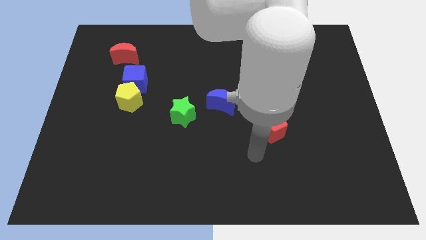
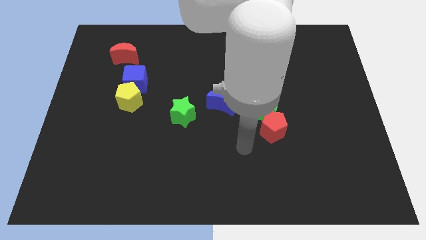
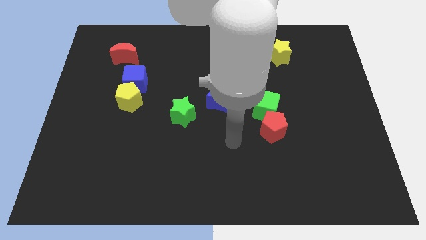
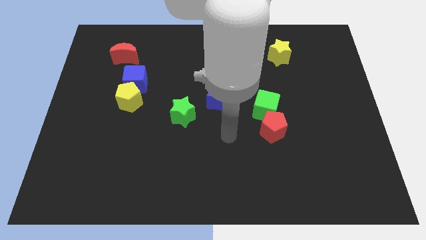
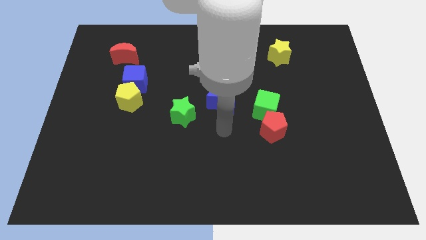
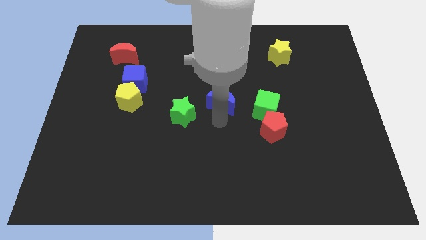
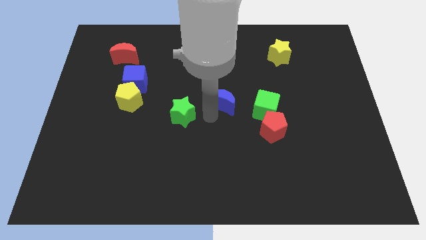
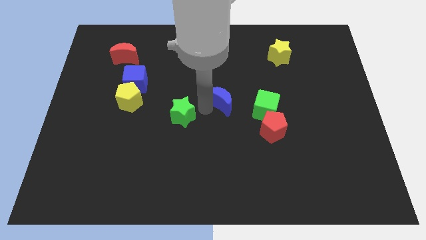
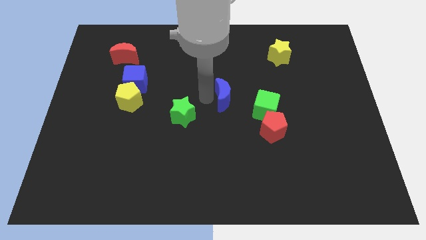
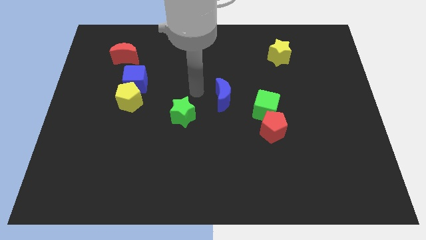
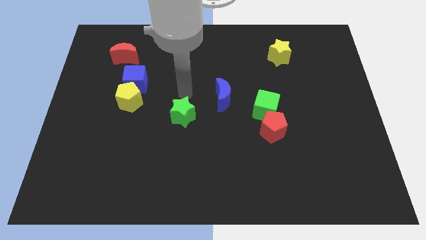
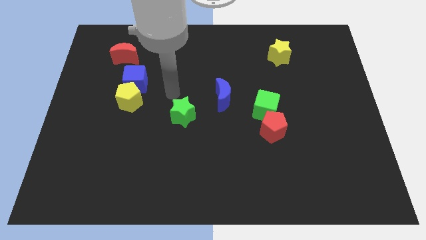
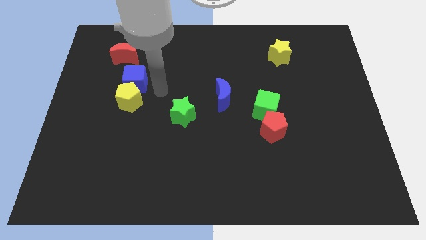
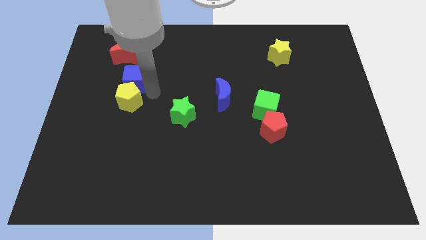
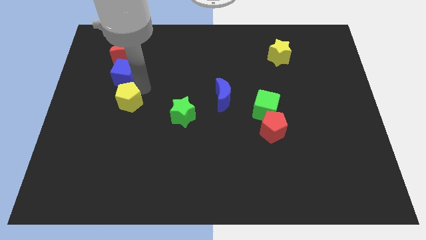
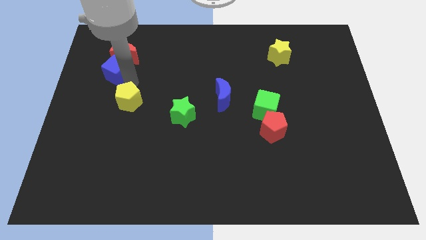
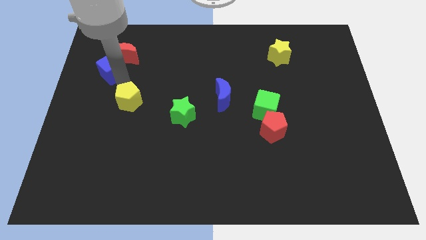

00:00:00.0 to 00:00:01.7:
pull the yellow pentagon apart from the blue cube

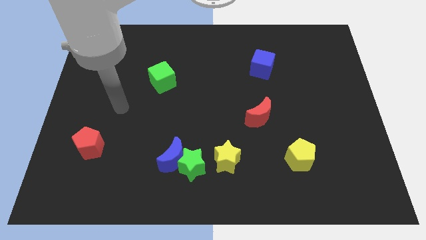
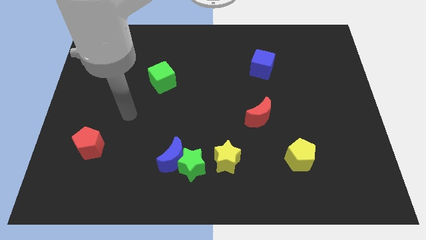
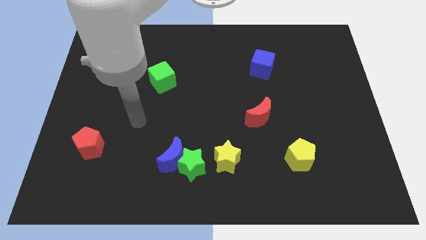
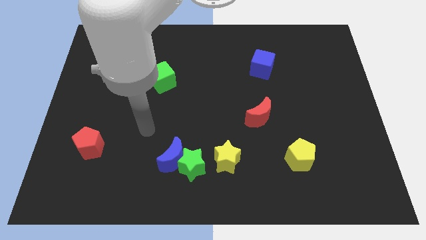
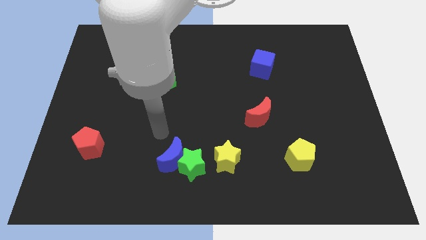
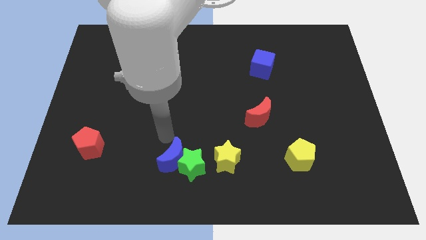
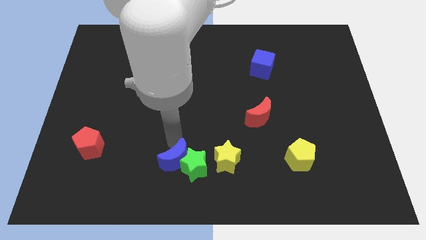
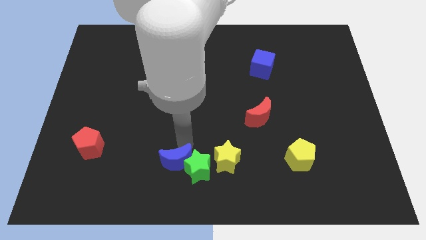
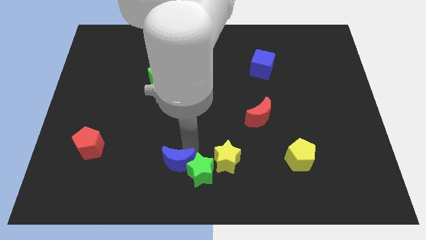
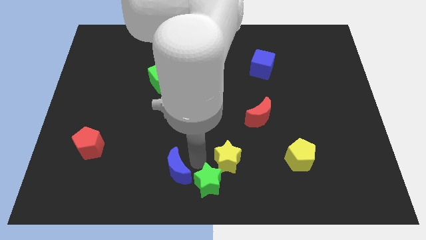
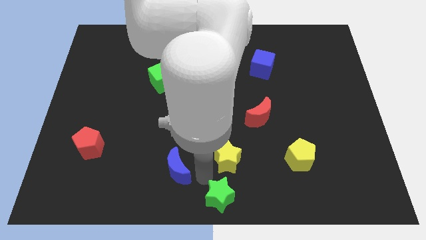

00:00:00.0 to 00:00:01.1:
separate the blue moon from the green star

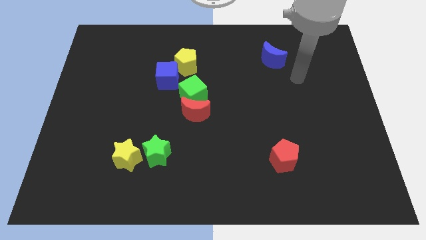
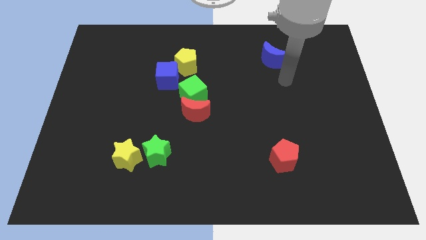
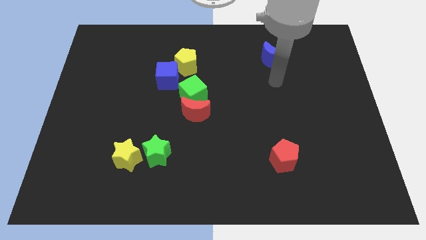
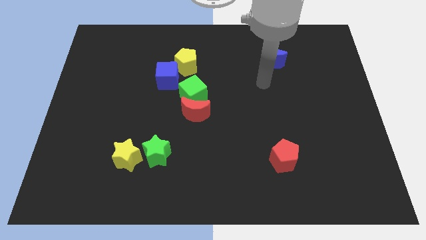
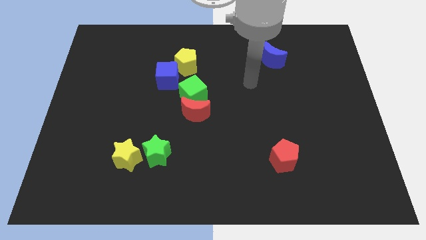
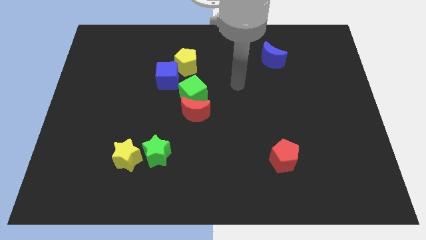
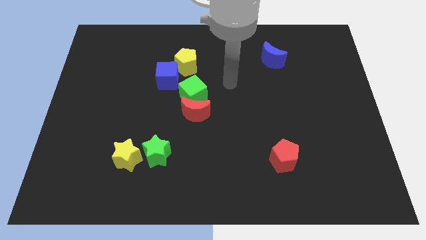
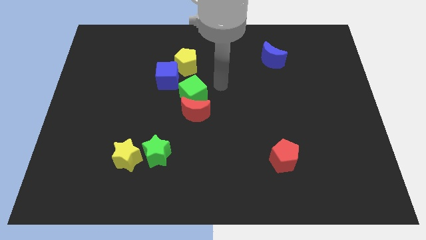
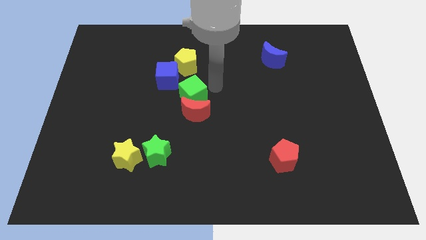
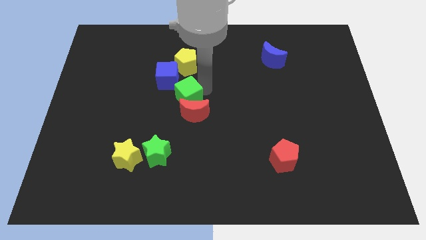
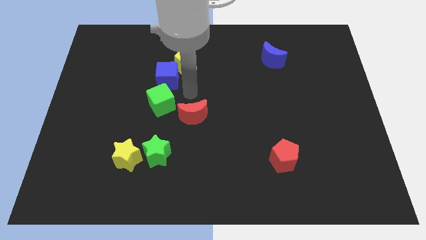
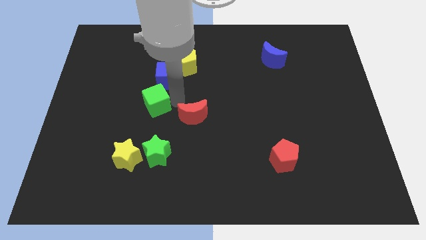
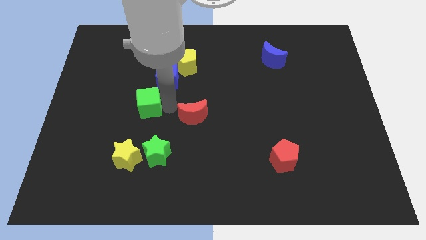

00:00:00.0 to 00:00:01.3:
move the red moon away from the green cube

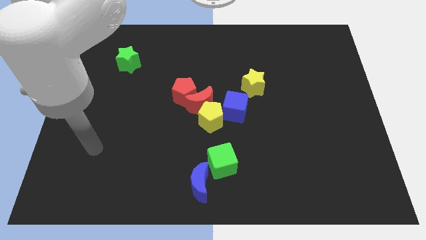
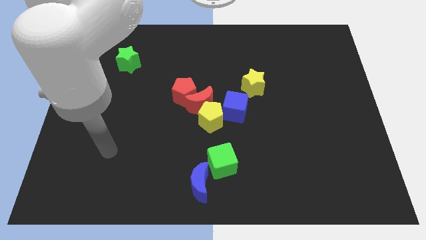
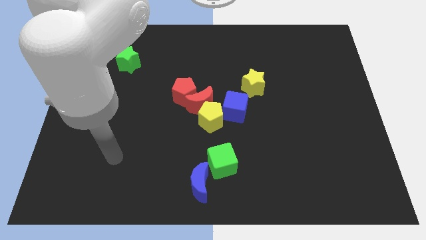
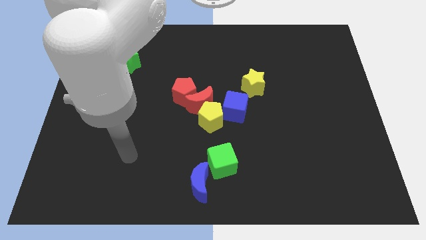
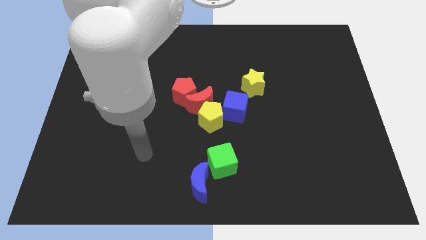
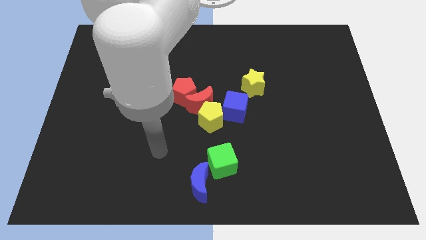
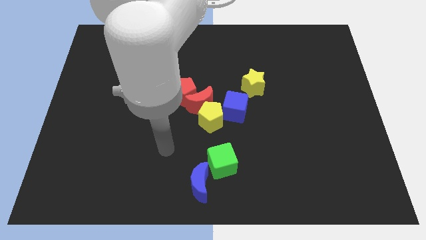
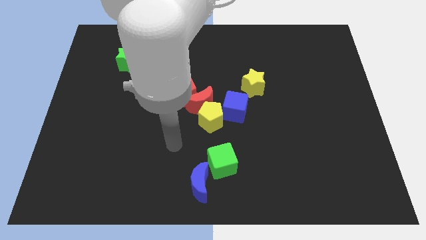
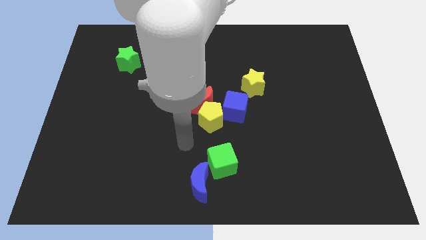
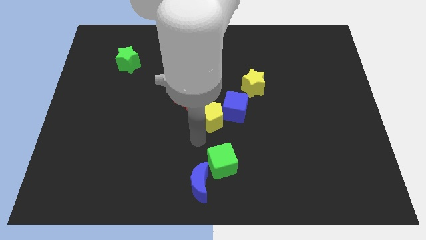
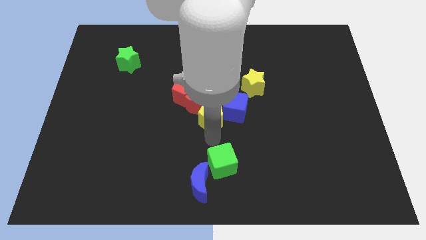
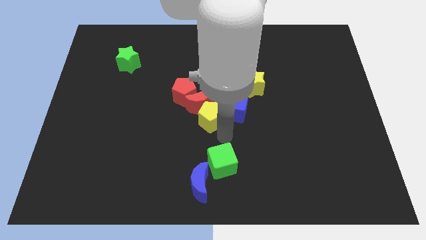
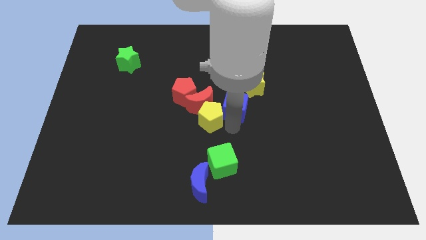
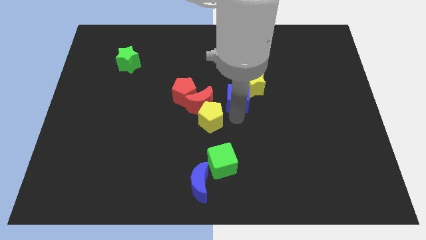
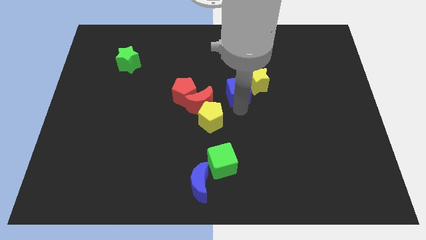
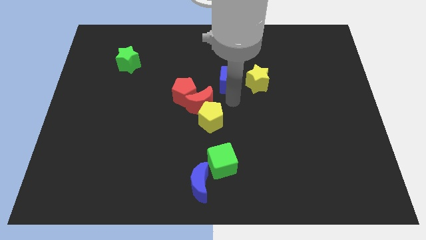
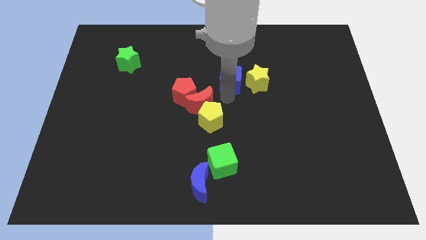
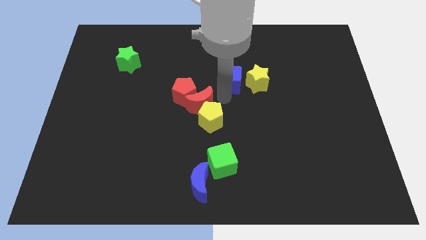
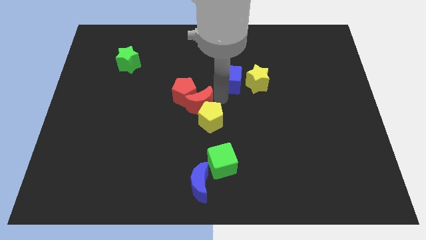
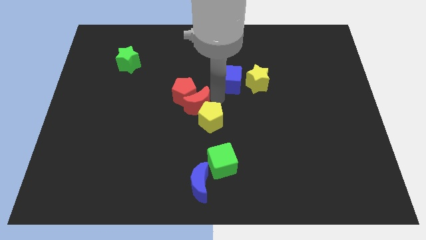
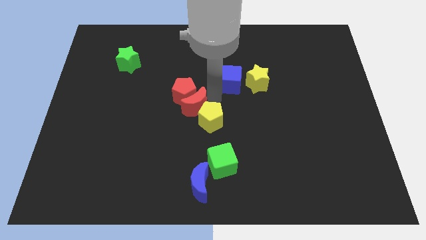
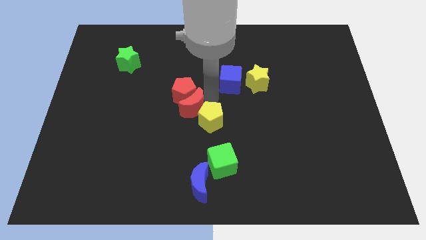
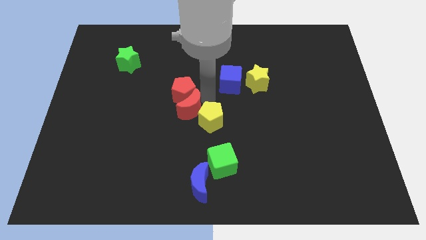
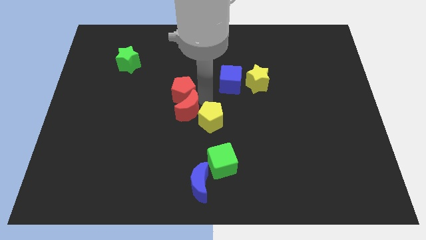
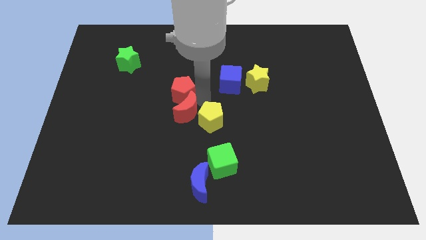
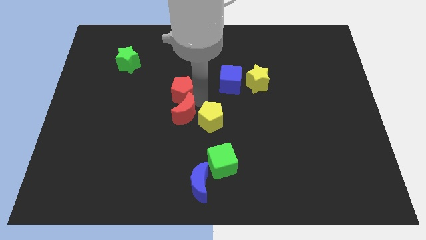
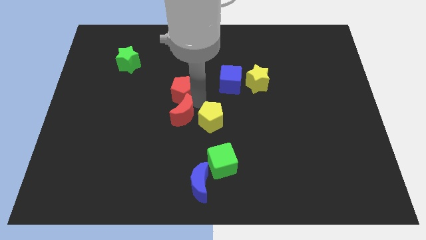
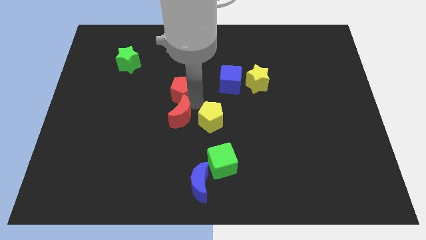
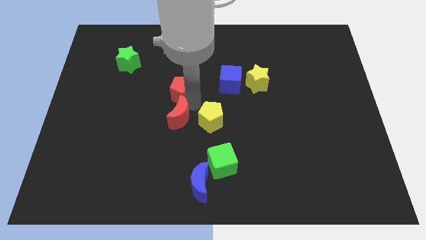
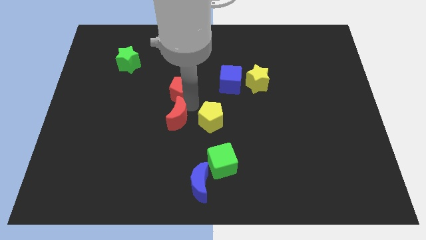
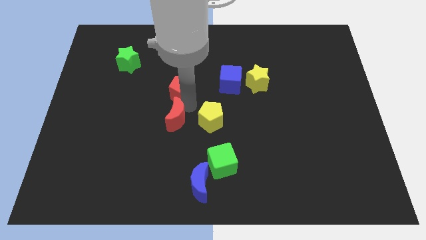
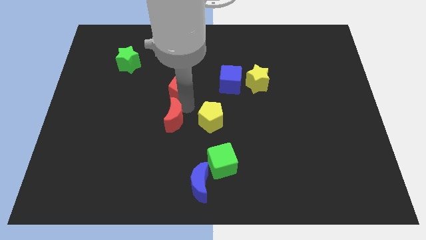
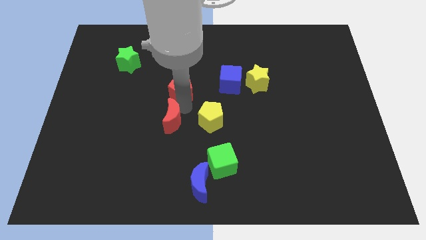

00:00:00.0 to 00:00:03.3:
separate the red moon from the group

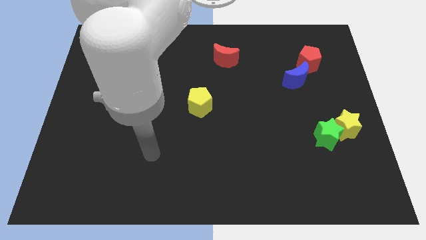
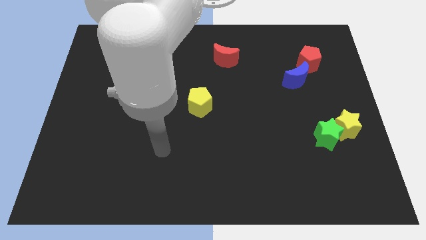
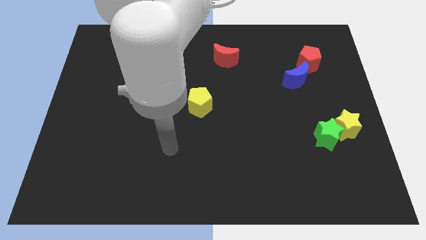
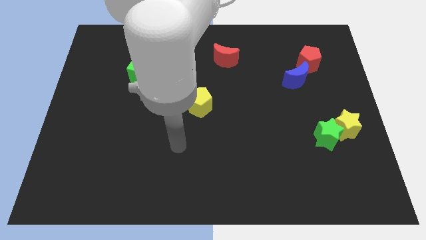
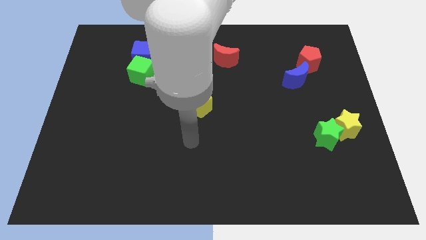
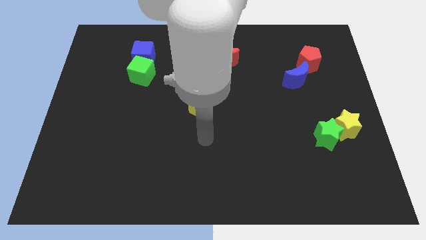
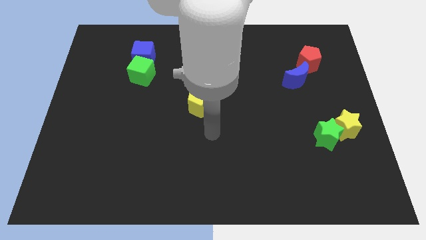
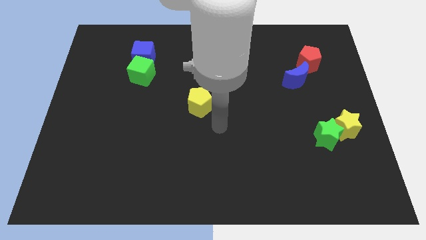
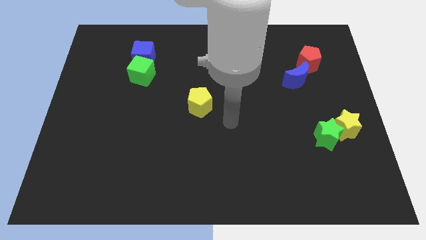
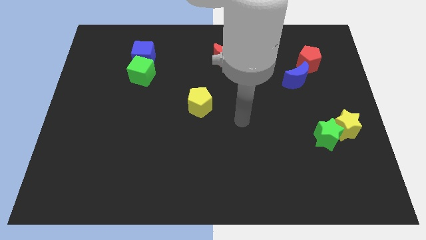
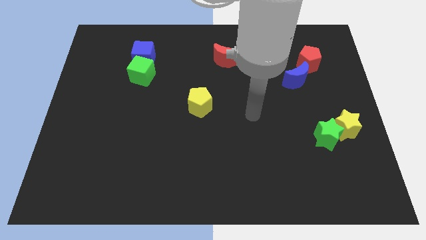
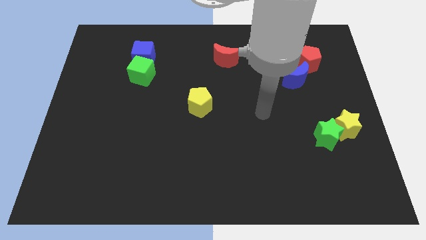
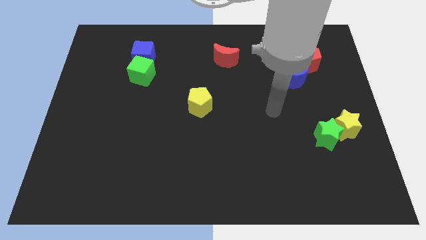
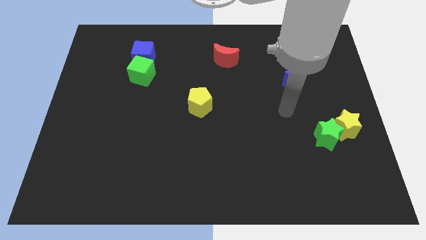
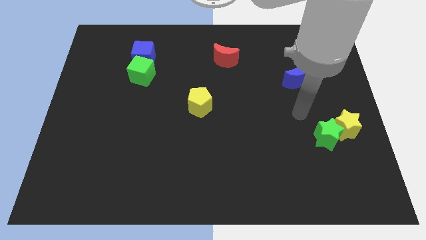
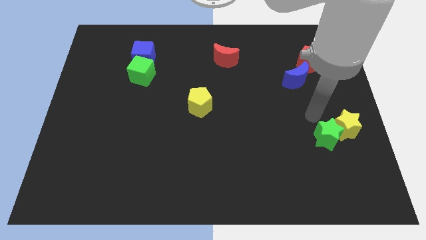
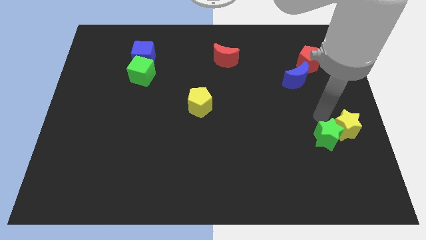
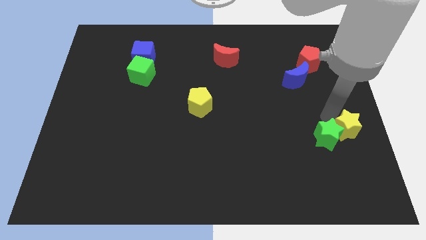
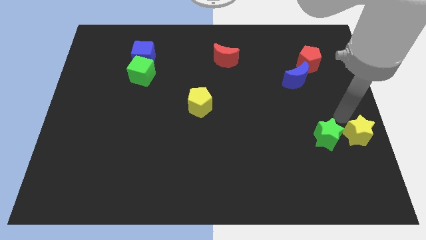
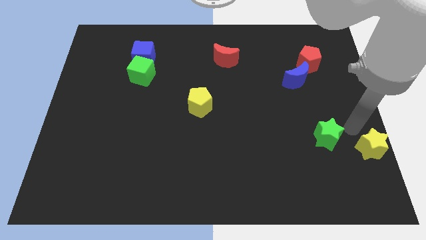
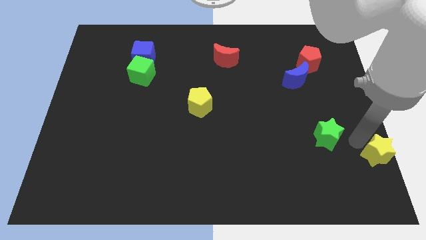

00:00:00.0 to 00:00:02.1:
move the green star away from the yellow star
